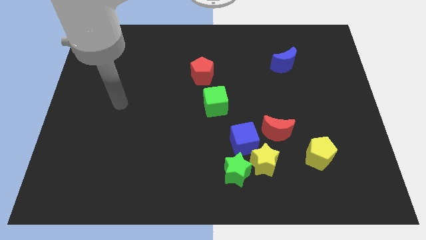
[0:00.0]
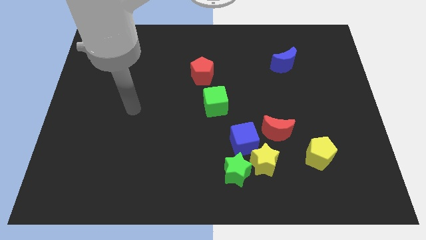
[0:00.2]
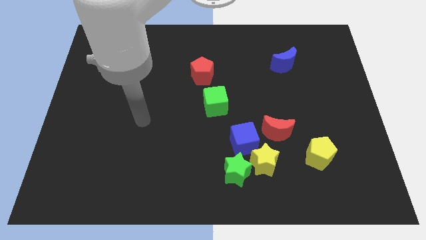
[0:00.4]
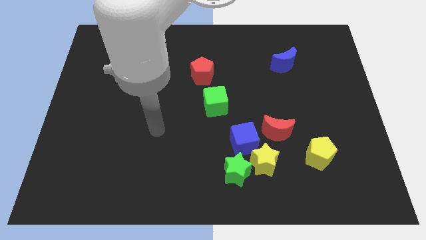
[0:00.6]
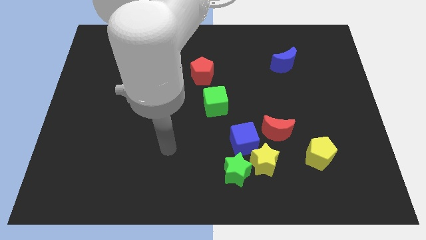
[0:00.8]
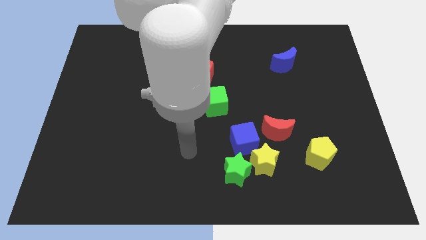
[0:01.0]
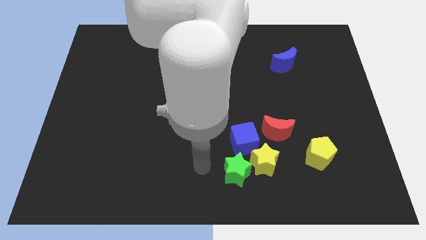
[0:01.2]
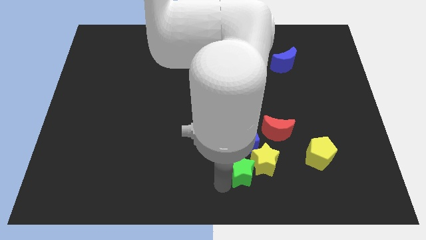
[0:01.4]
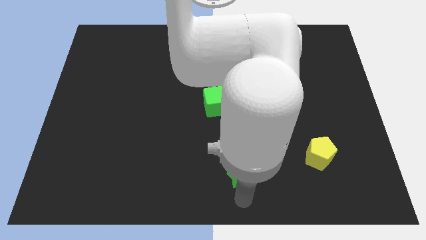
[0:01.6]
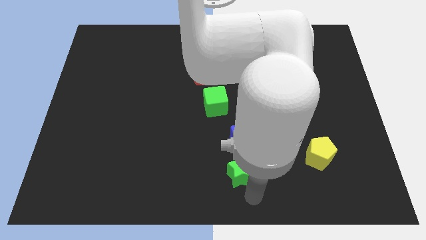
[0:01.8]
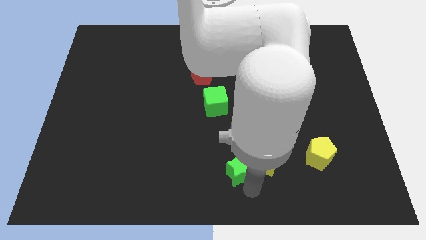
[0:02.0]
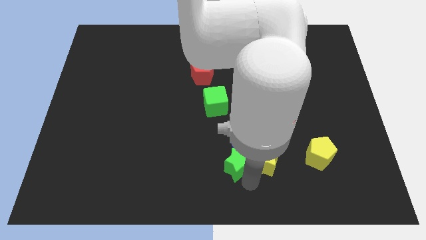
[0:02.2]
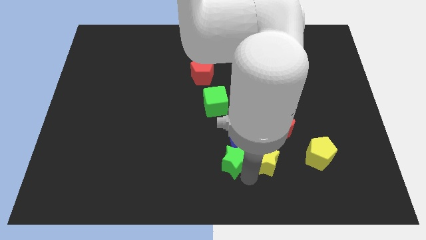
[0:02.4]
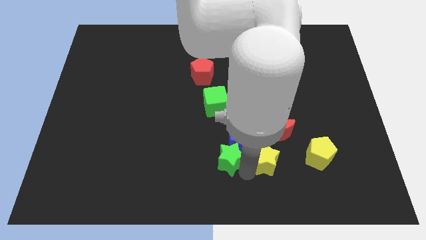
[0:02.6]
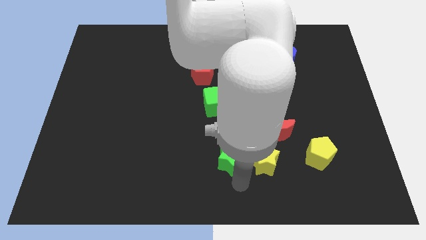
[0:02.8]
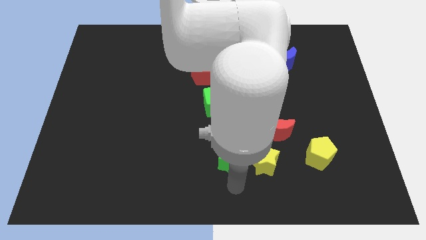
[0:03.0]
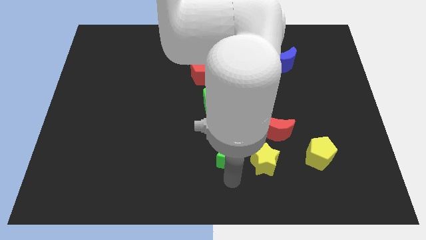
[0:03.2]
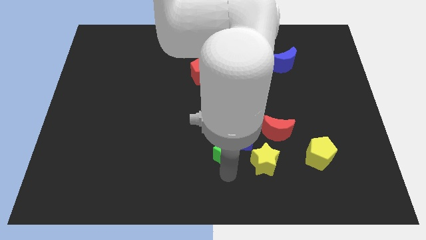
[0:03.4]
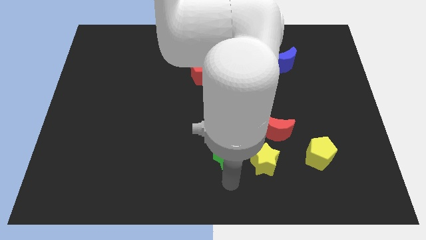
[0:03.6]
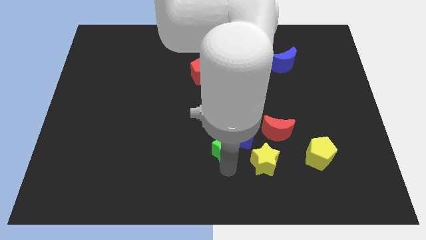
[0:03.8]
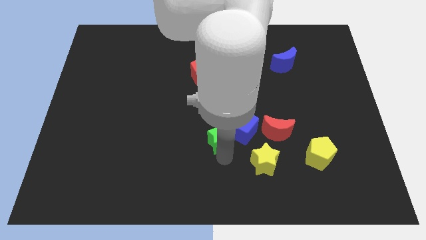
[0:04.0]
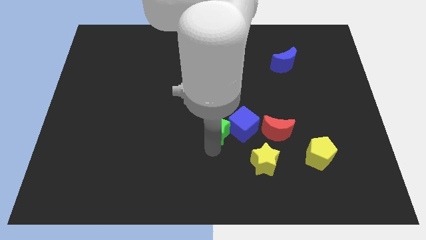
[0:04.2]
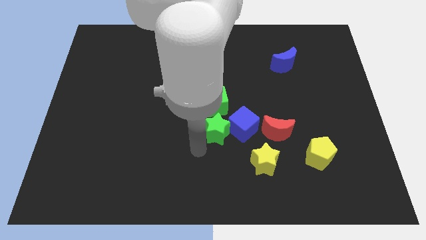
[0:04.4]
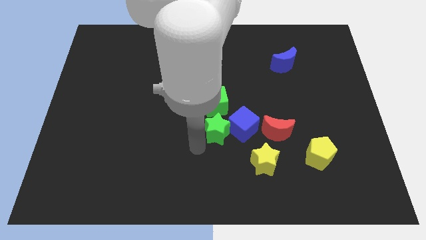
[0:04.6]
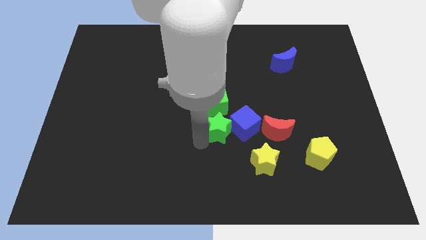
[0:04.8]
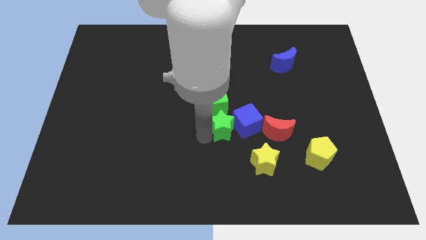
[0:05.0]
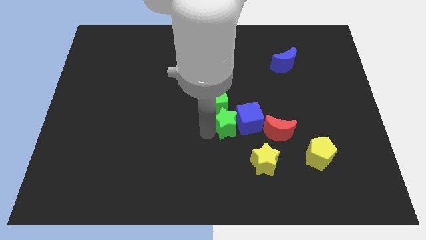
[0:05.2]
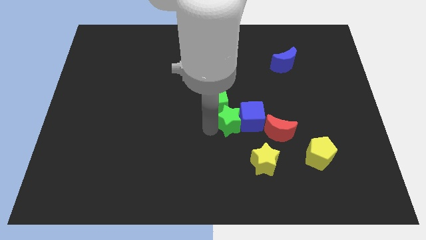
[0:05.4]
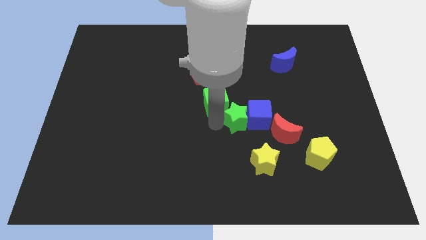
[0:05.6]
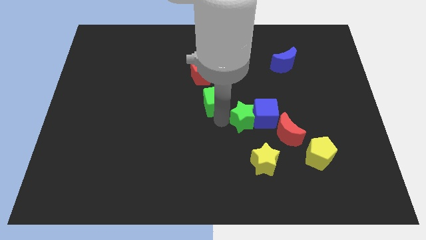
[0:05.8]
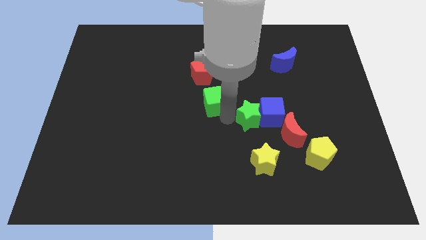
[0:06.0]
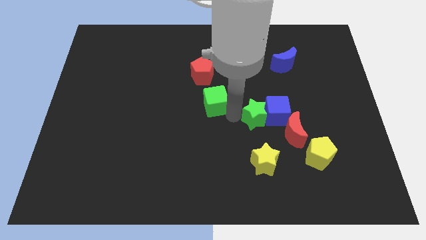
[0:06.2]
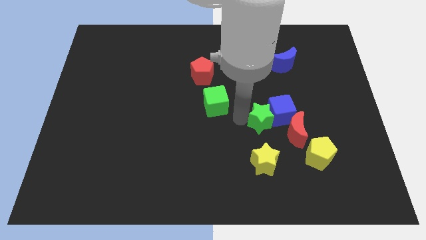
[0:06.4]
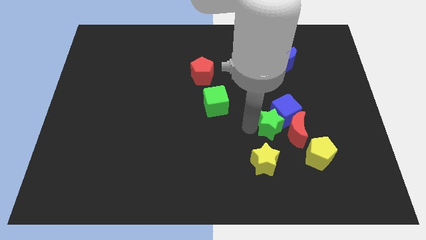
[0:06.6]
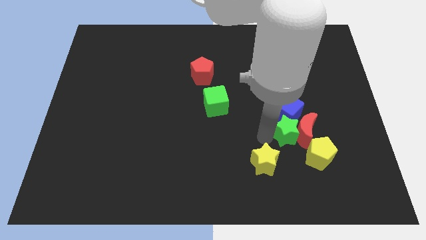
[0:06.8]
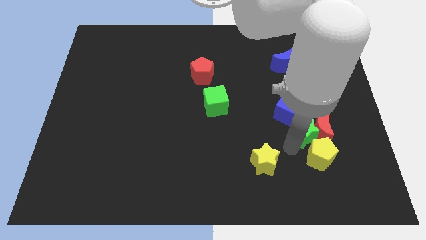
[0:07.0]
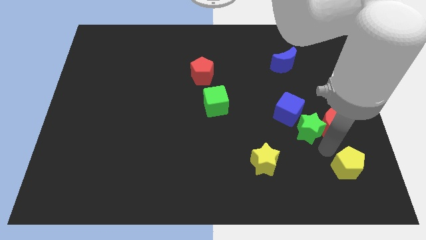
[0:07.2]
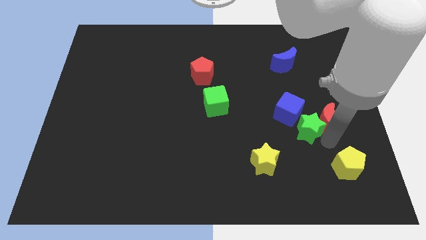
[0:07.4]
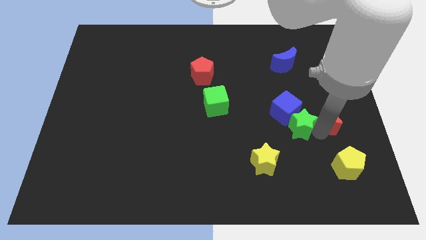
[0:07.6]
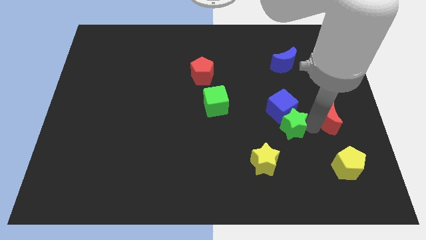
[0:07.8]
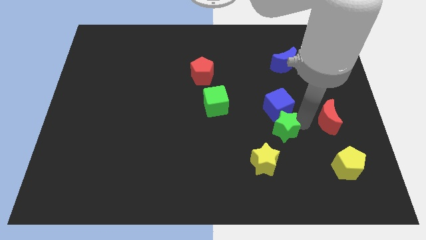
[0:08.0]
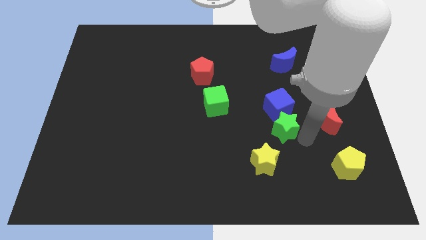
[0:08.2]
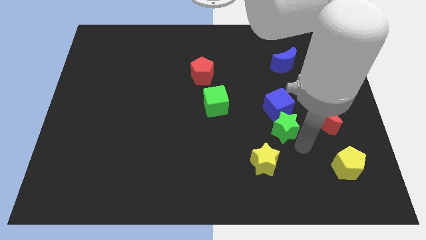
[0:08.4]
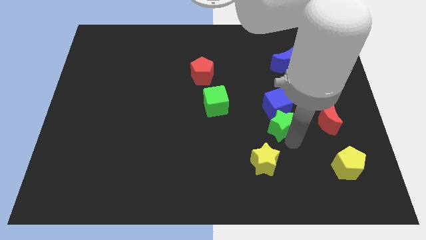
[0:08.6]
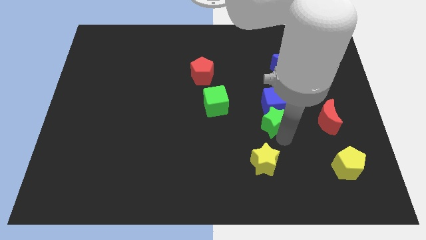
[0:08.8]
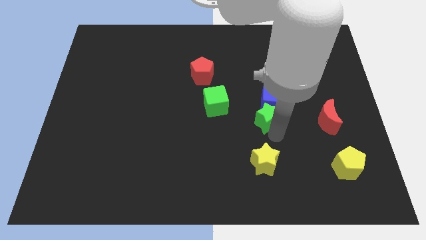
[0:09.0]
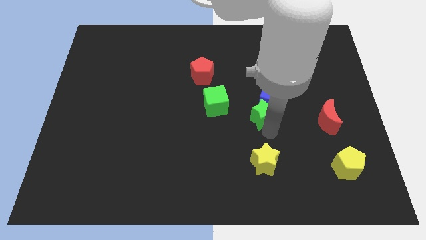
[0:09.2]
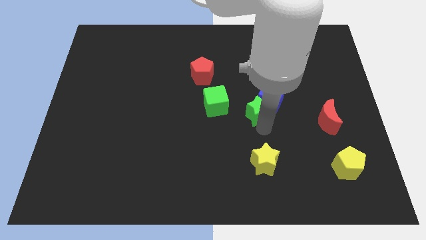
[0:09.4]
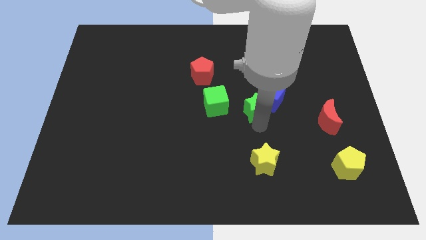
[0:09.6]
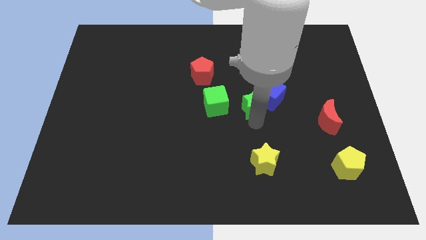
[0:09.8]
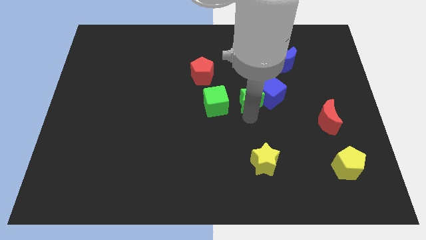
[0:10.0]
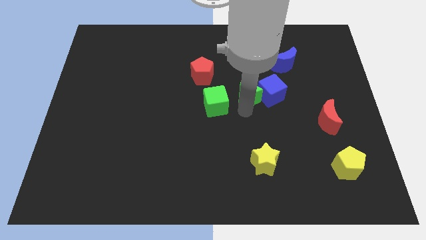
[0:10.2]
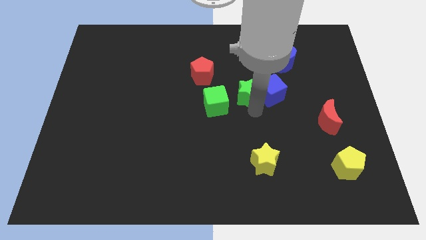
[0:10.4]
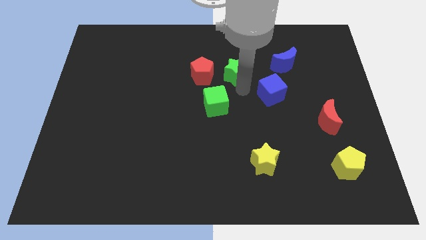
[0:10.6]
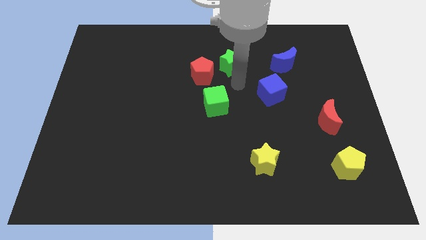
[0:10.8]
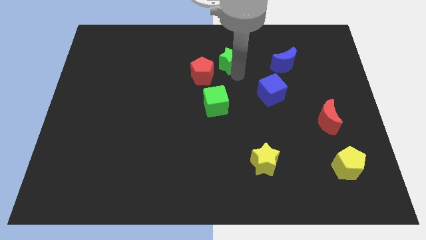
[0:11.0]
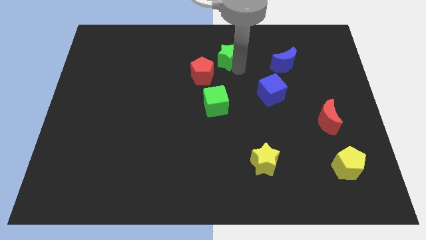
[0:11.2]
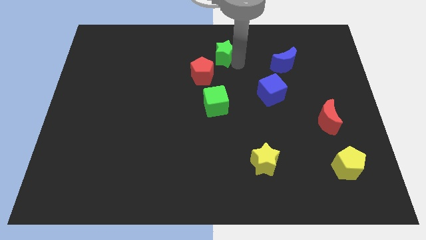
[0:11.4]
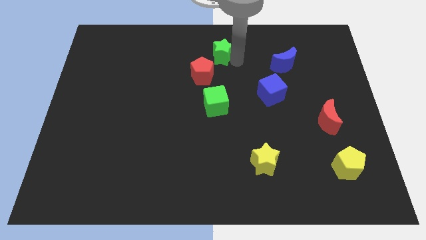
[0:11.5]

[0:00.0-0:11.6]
push the green star to the top side

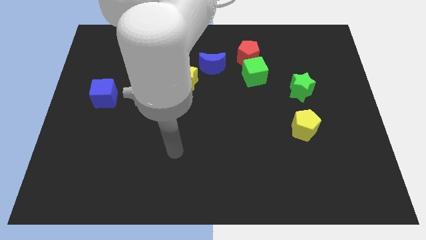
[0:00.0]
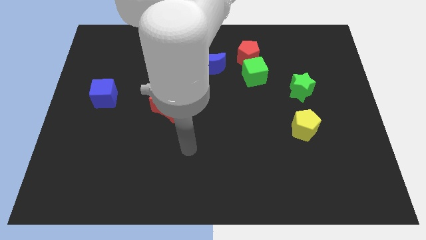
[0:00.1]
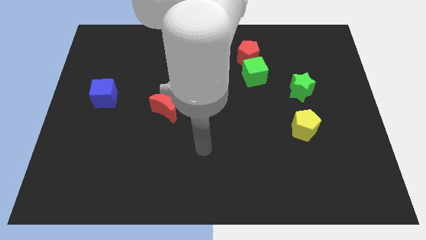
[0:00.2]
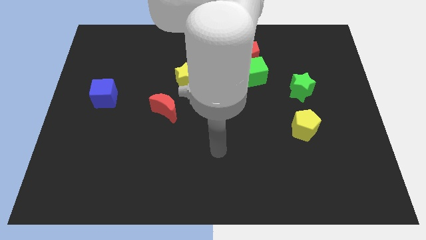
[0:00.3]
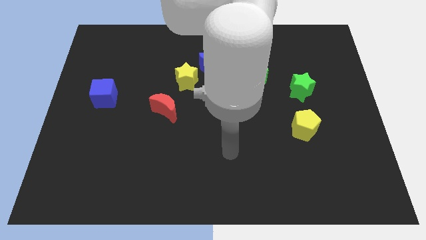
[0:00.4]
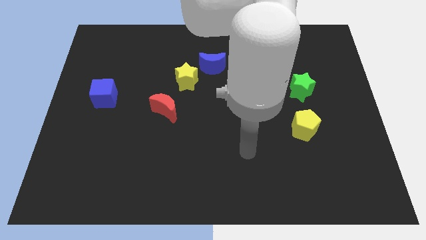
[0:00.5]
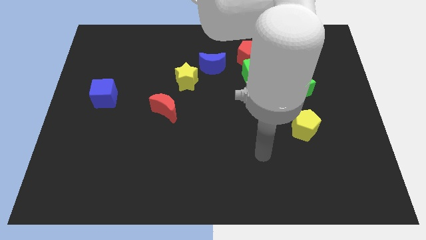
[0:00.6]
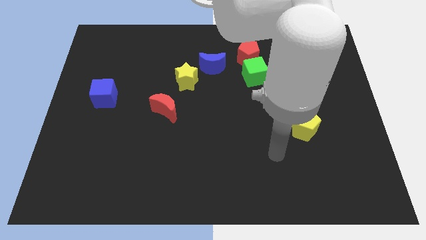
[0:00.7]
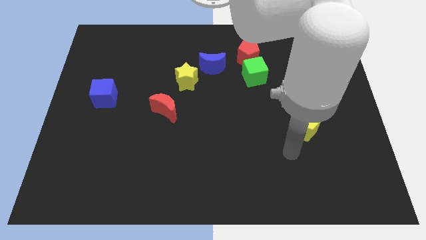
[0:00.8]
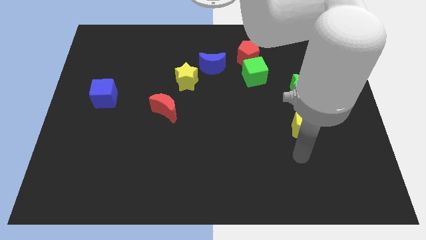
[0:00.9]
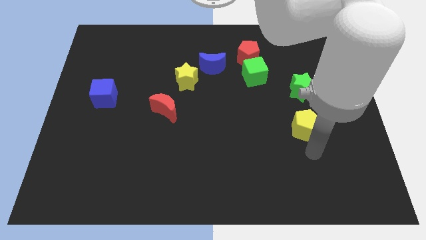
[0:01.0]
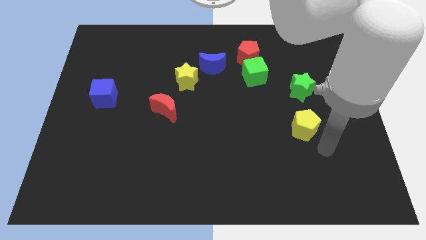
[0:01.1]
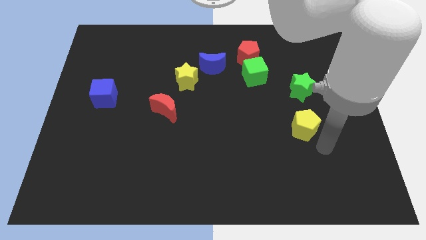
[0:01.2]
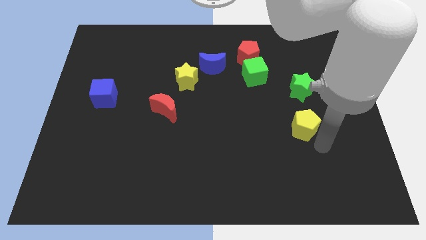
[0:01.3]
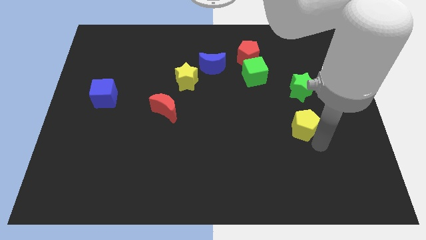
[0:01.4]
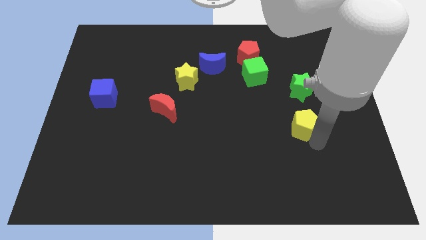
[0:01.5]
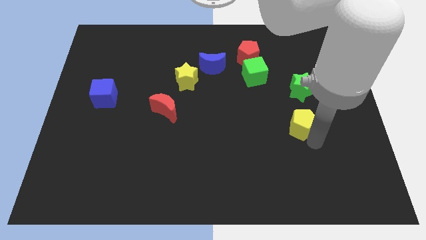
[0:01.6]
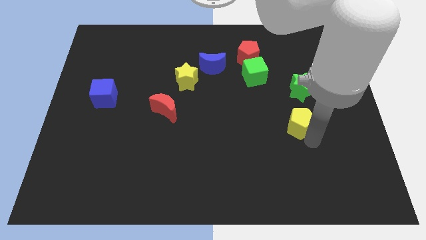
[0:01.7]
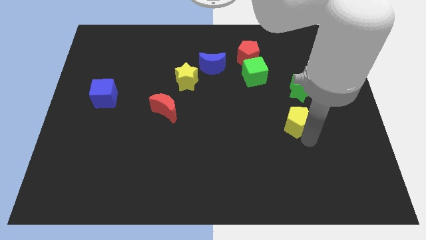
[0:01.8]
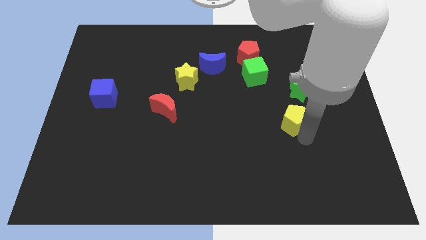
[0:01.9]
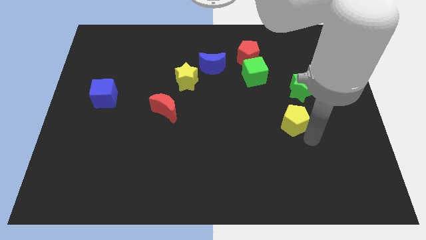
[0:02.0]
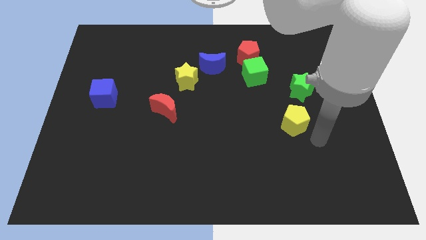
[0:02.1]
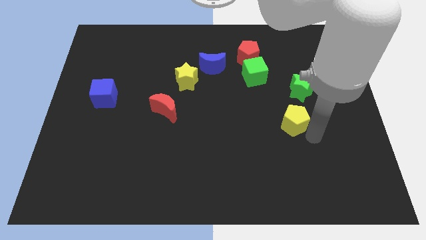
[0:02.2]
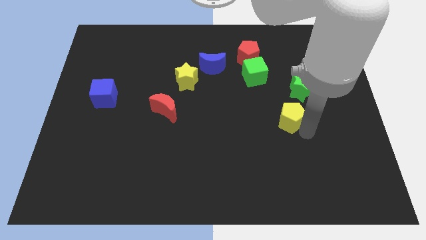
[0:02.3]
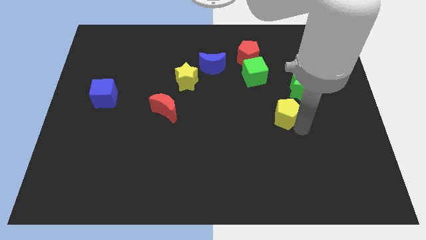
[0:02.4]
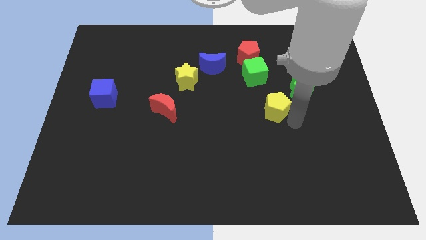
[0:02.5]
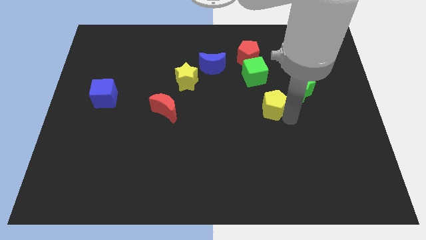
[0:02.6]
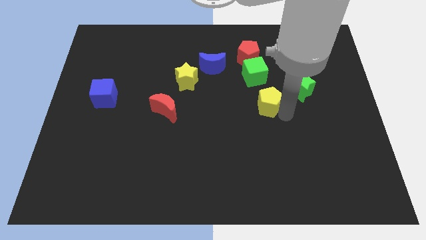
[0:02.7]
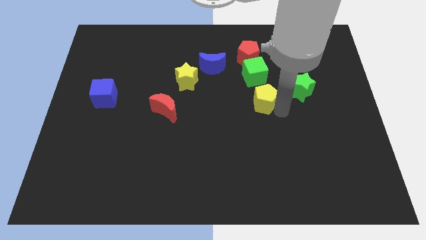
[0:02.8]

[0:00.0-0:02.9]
slide the yellow pentagon to the middle
